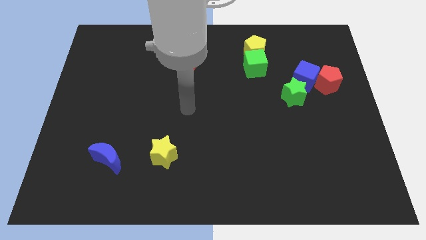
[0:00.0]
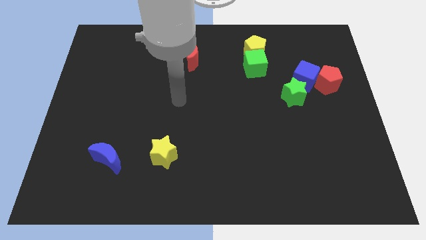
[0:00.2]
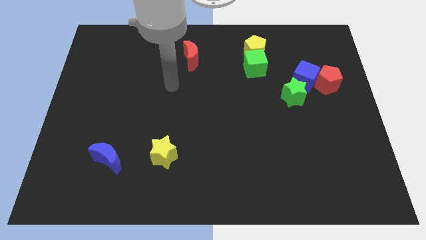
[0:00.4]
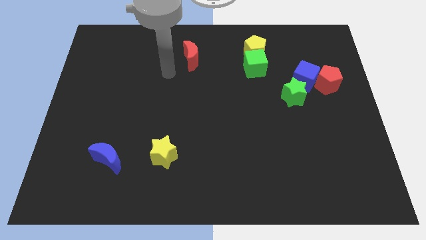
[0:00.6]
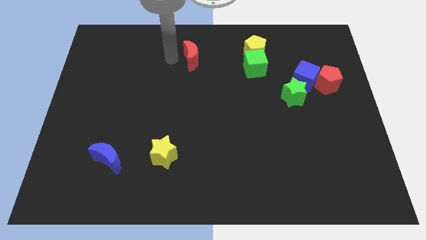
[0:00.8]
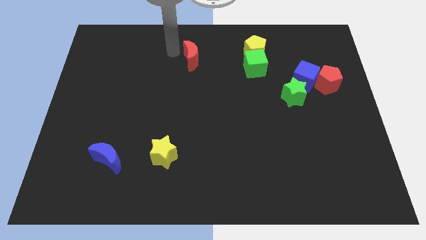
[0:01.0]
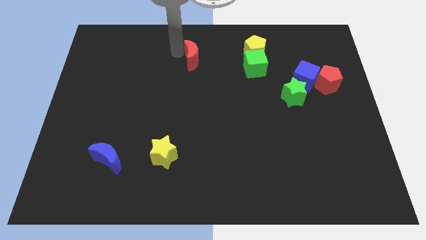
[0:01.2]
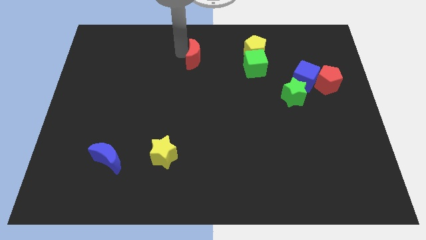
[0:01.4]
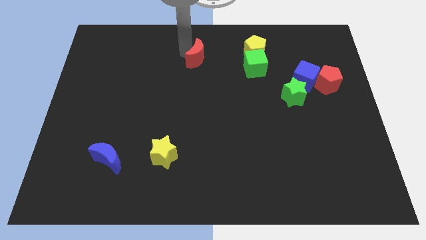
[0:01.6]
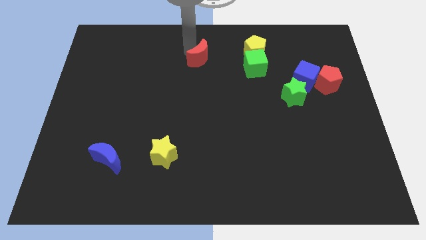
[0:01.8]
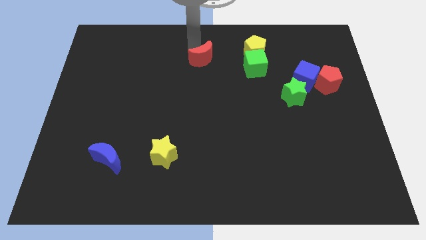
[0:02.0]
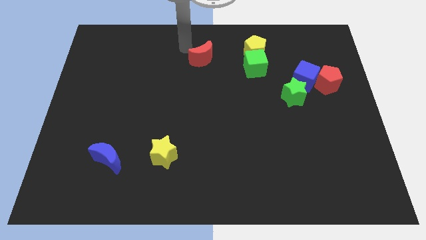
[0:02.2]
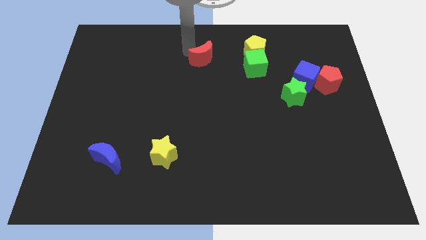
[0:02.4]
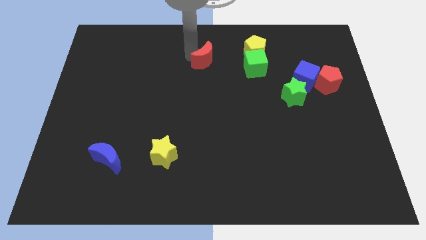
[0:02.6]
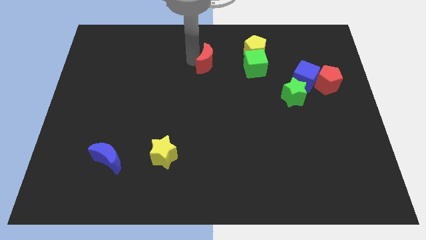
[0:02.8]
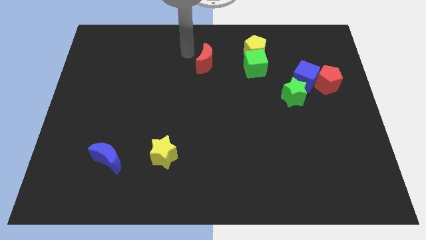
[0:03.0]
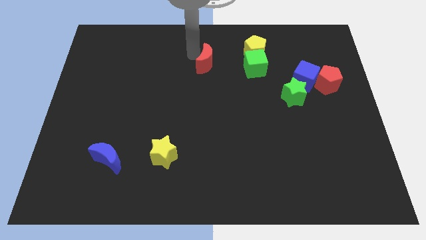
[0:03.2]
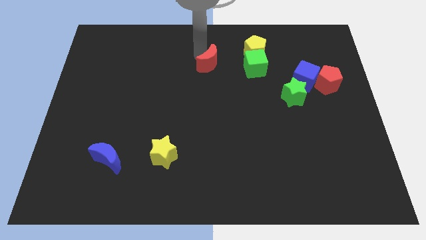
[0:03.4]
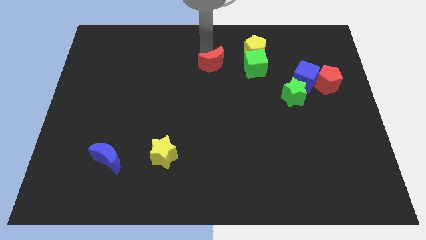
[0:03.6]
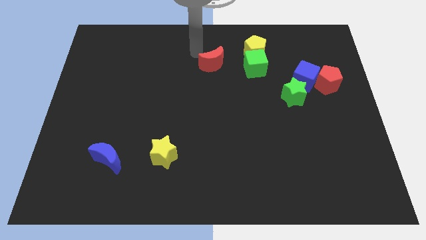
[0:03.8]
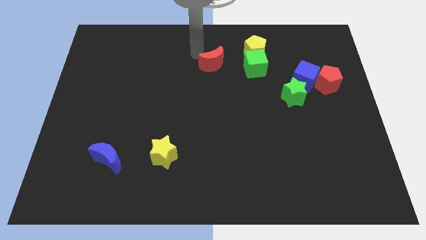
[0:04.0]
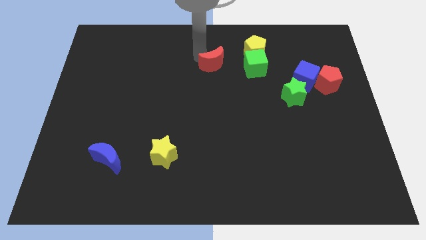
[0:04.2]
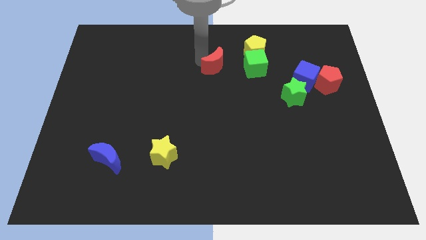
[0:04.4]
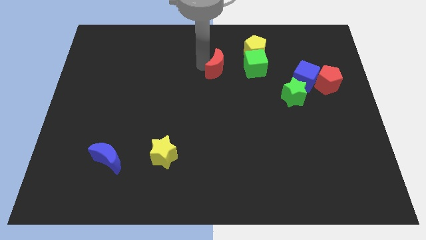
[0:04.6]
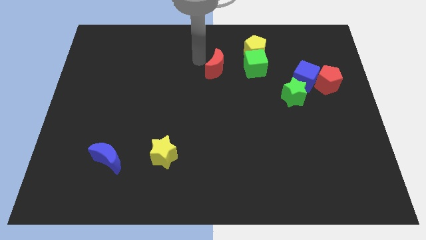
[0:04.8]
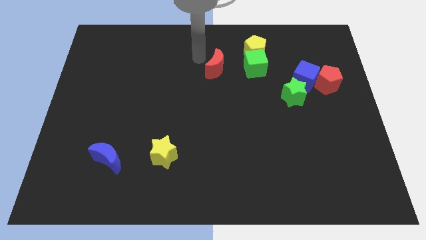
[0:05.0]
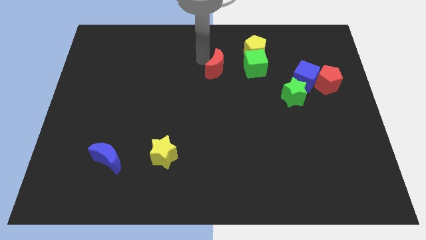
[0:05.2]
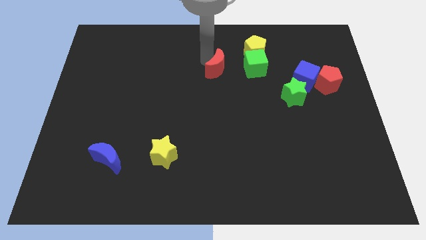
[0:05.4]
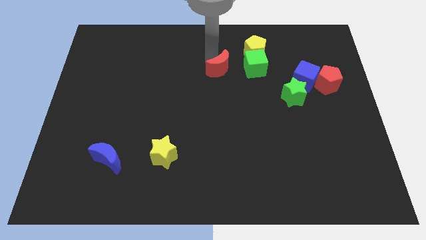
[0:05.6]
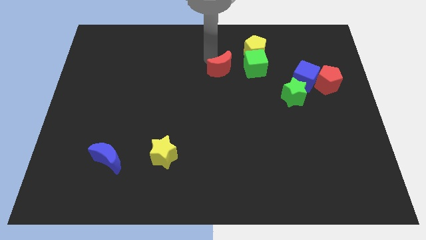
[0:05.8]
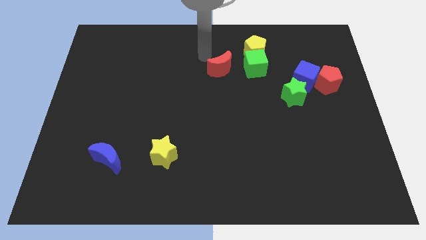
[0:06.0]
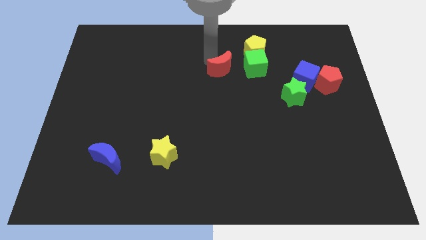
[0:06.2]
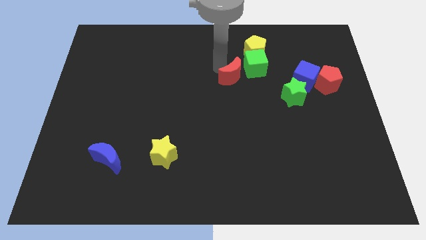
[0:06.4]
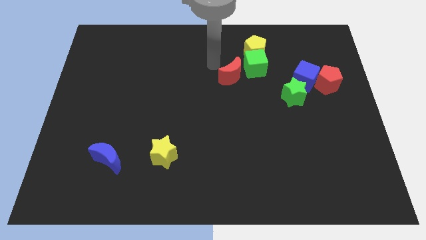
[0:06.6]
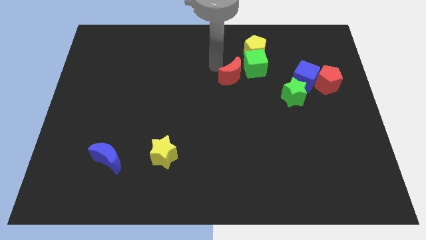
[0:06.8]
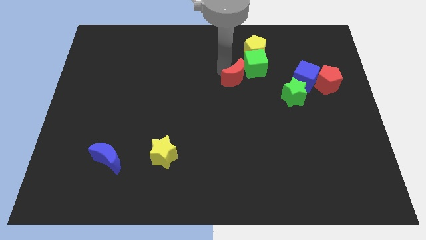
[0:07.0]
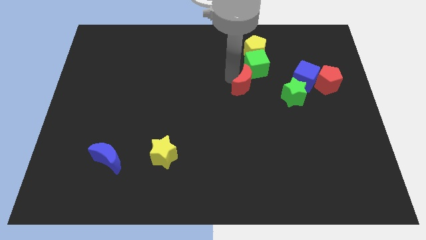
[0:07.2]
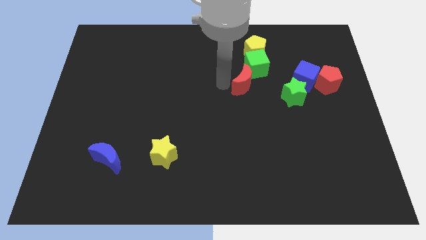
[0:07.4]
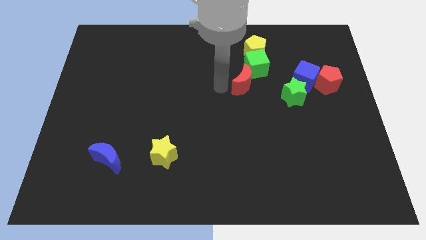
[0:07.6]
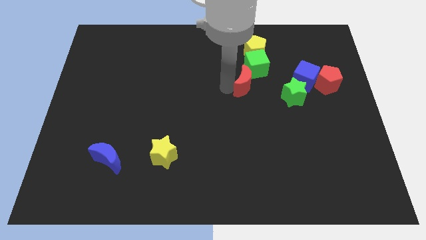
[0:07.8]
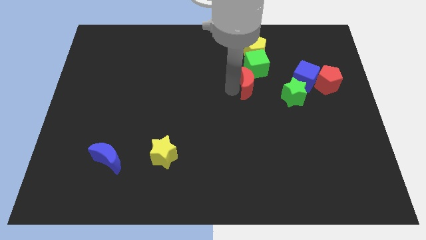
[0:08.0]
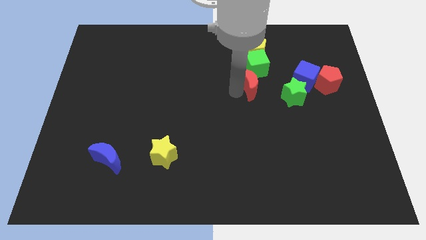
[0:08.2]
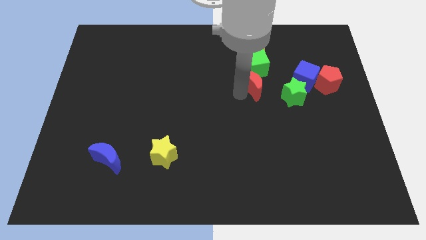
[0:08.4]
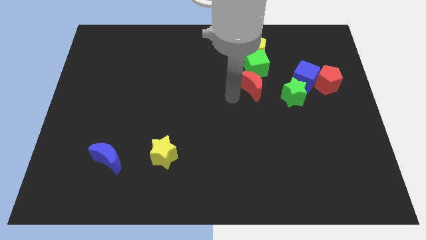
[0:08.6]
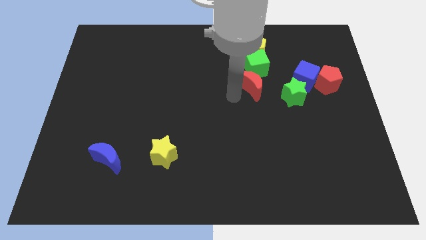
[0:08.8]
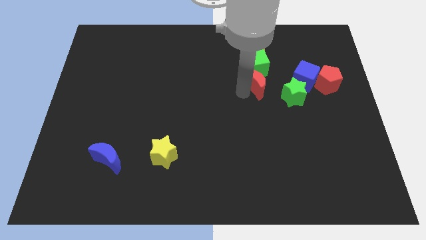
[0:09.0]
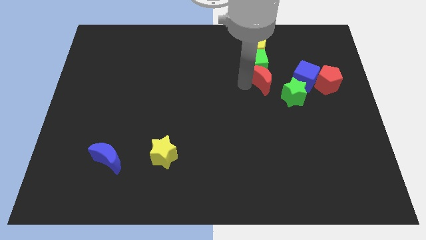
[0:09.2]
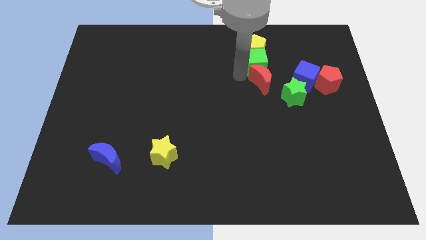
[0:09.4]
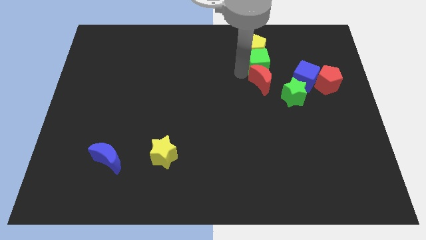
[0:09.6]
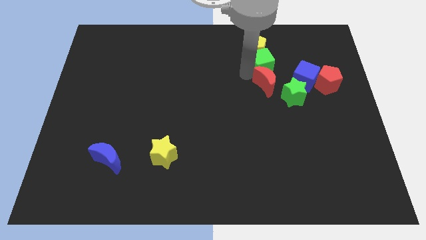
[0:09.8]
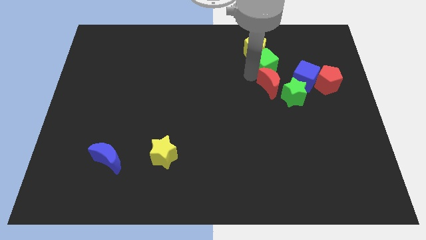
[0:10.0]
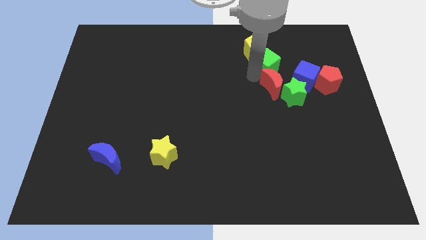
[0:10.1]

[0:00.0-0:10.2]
put the red moon next to the green star

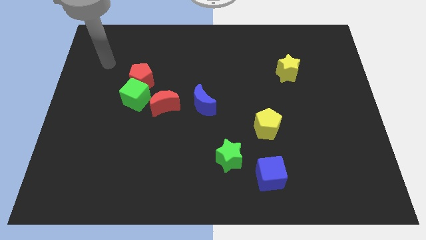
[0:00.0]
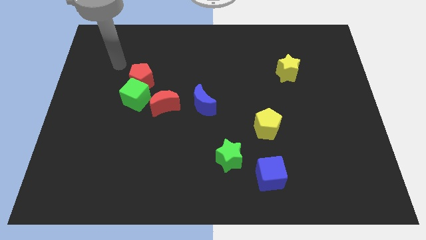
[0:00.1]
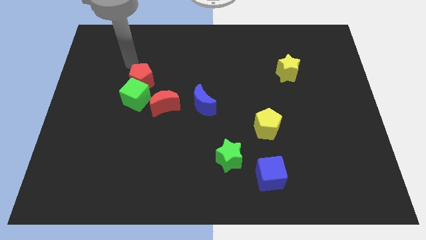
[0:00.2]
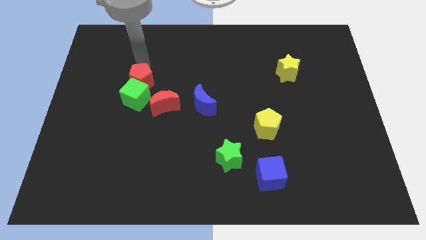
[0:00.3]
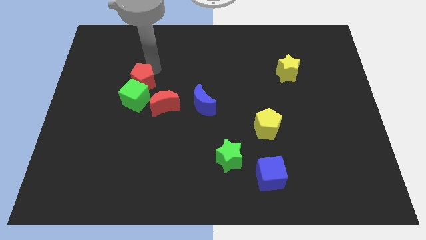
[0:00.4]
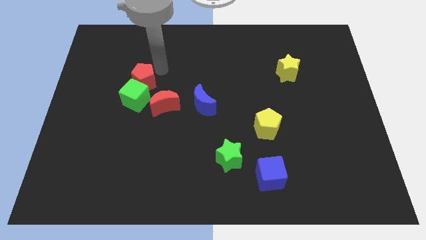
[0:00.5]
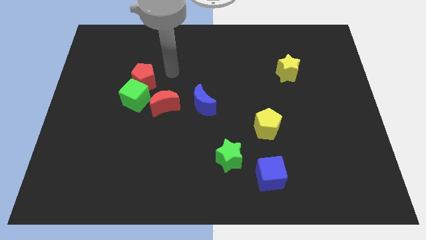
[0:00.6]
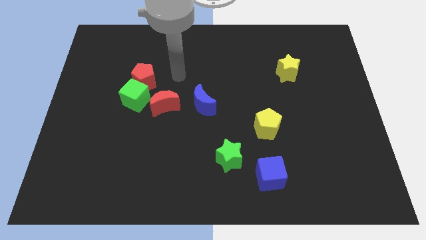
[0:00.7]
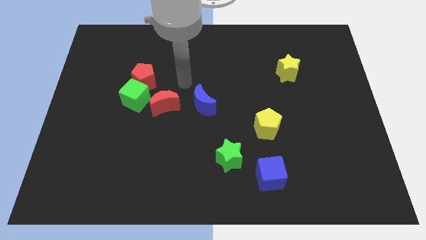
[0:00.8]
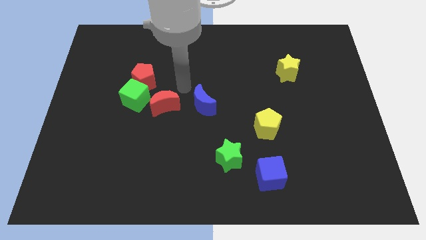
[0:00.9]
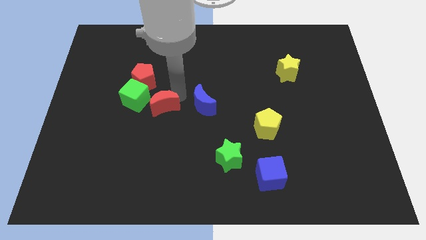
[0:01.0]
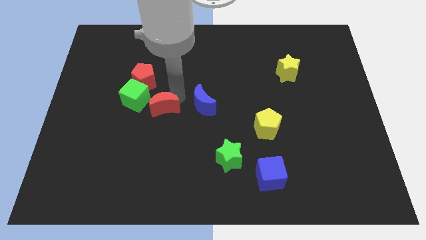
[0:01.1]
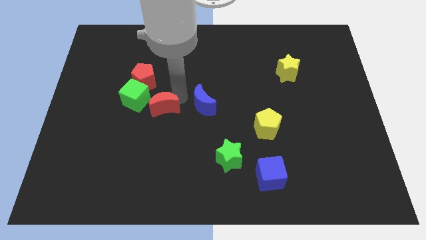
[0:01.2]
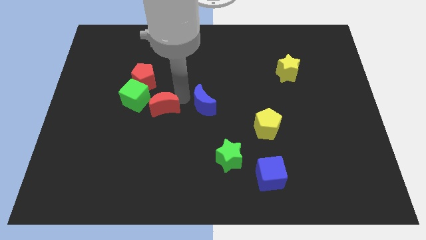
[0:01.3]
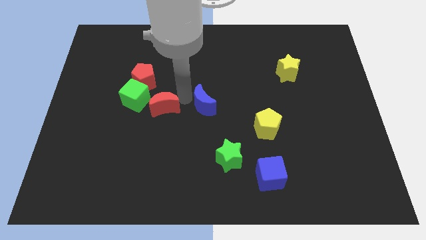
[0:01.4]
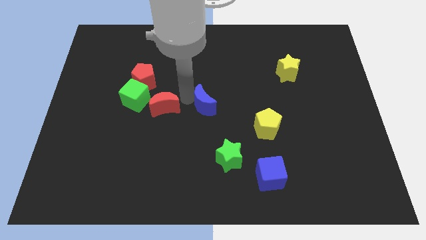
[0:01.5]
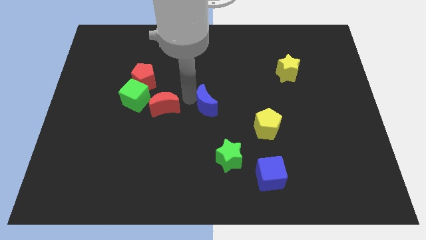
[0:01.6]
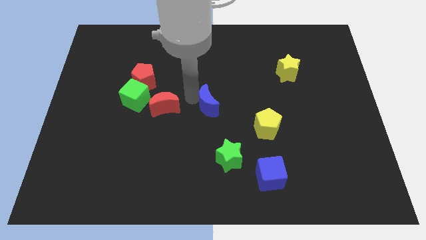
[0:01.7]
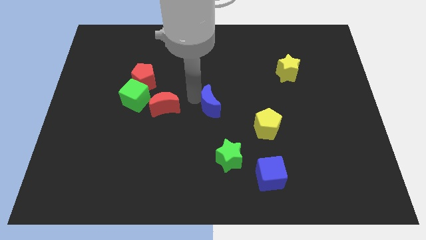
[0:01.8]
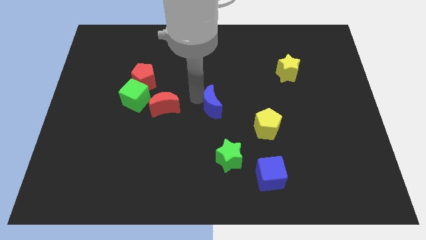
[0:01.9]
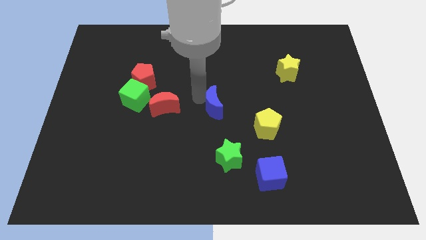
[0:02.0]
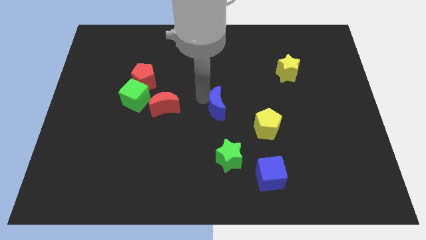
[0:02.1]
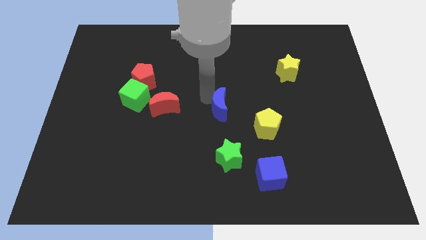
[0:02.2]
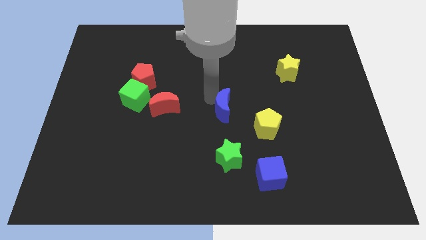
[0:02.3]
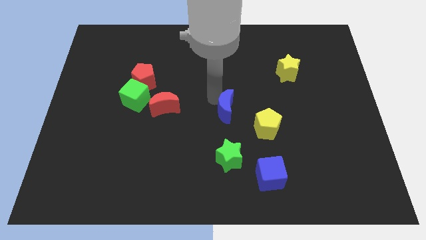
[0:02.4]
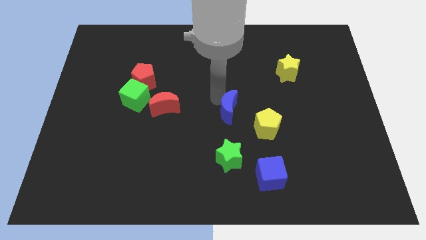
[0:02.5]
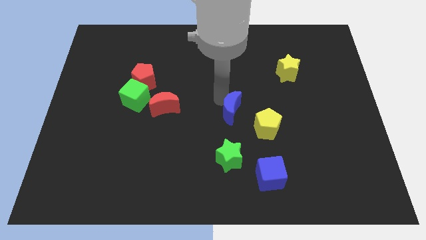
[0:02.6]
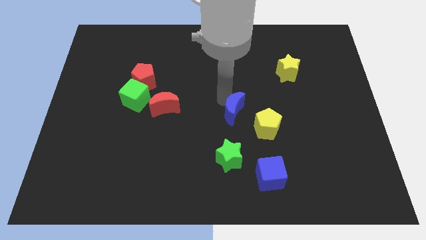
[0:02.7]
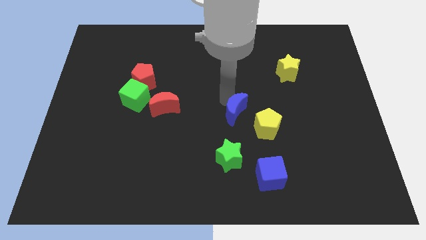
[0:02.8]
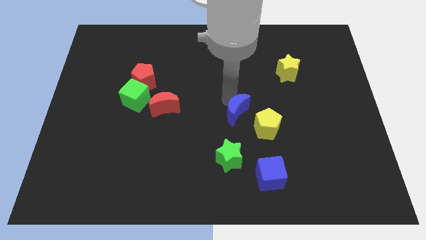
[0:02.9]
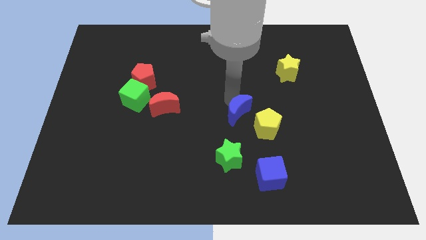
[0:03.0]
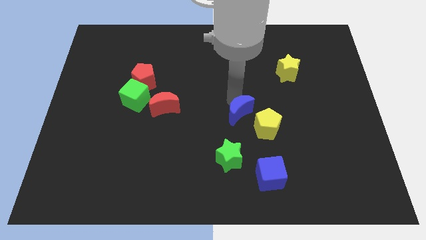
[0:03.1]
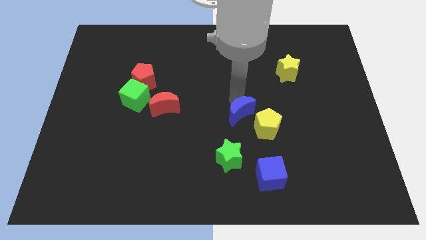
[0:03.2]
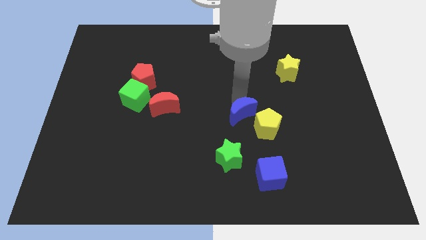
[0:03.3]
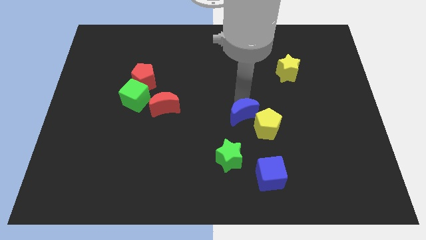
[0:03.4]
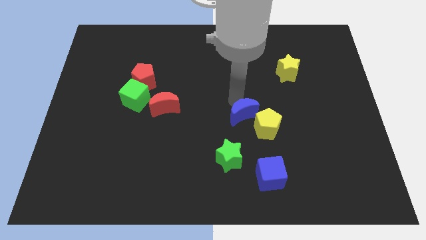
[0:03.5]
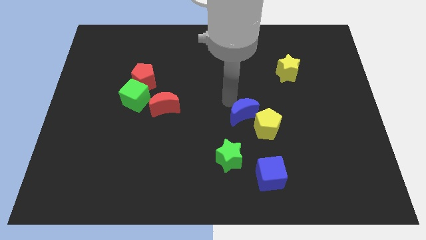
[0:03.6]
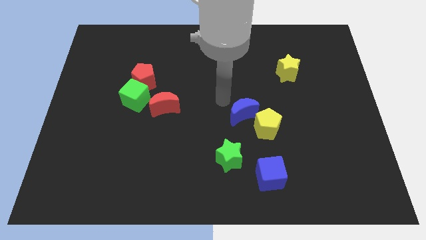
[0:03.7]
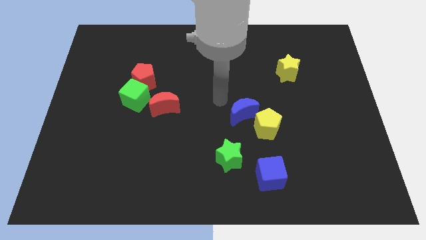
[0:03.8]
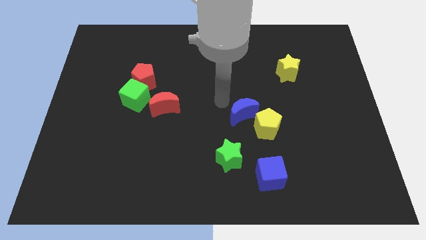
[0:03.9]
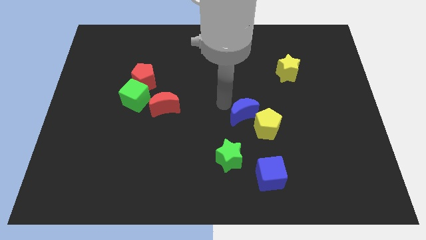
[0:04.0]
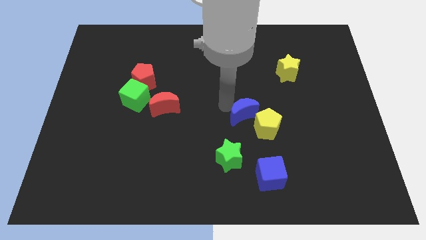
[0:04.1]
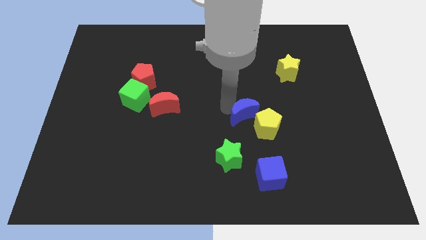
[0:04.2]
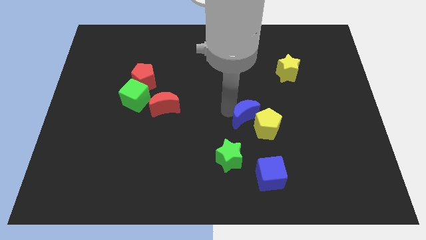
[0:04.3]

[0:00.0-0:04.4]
put the blue moon next to the yellow pentagon
